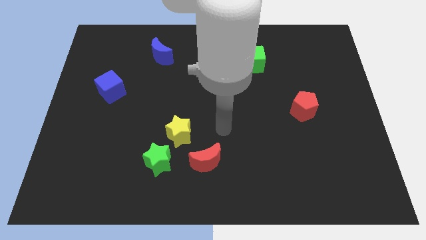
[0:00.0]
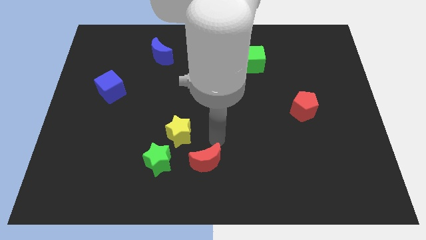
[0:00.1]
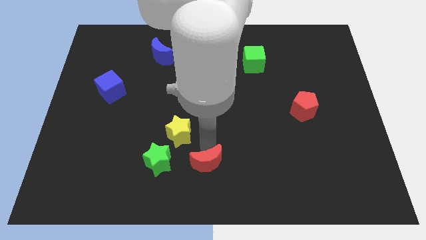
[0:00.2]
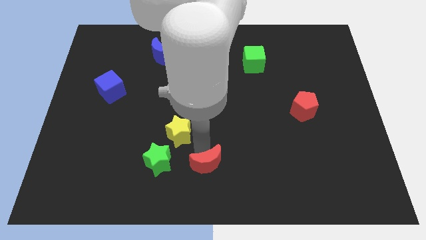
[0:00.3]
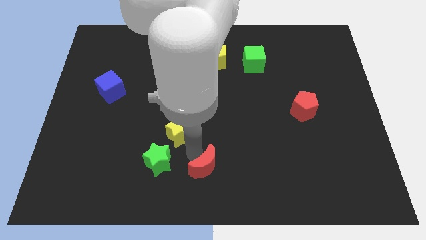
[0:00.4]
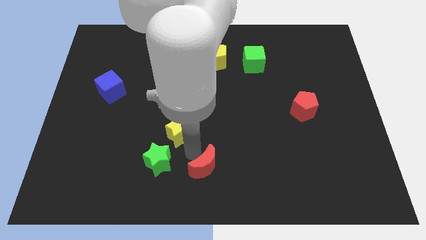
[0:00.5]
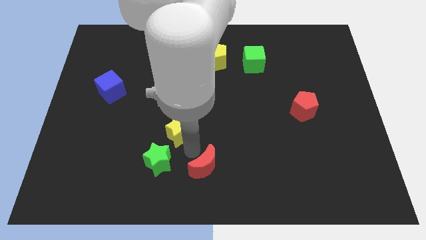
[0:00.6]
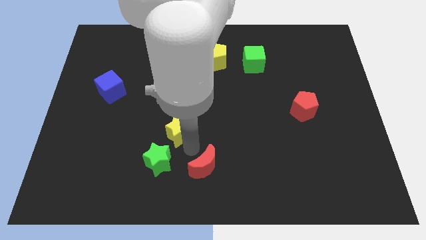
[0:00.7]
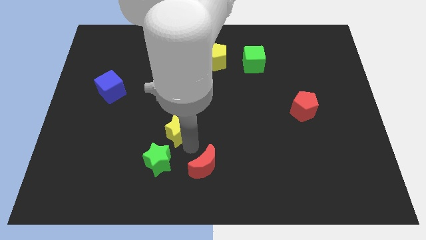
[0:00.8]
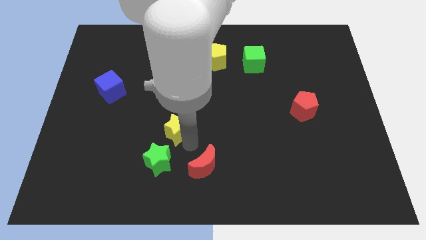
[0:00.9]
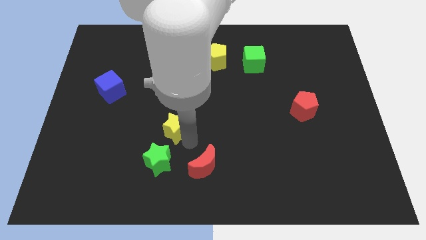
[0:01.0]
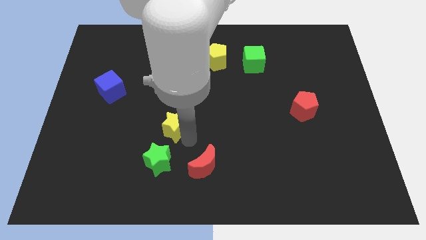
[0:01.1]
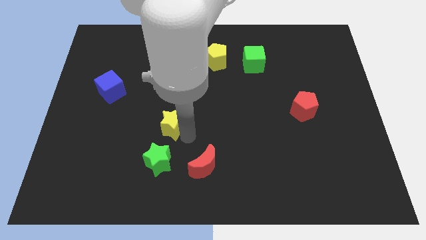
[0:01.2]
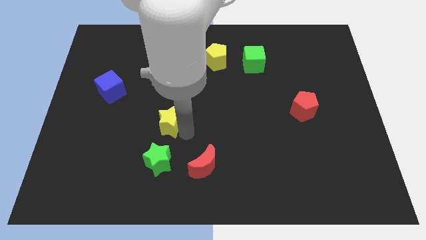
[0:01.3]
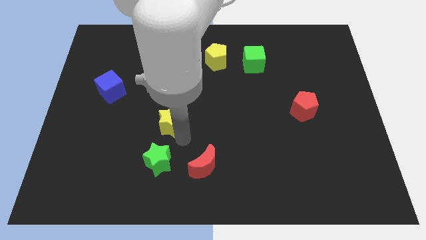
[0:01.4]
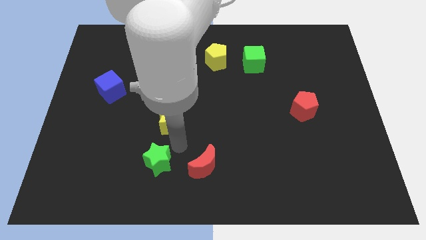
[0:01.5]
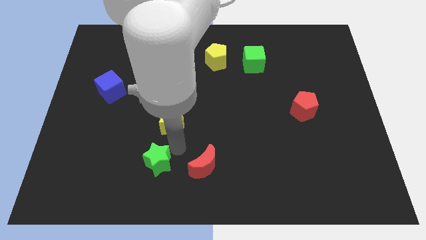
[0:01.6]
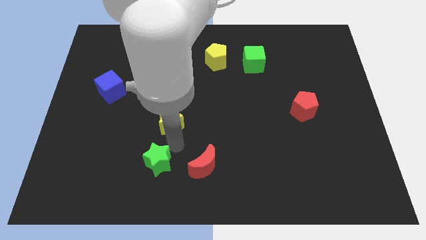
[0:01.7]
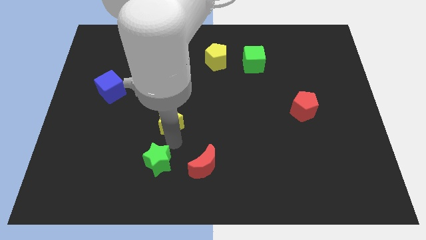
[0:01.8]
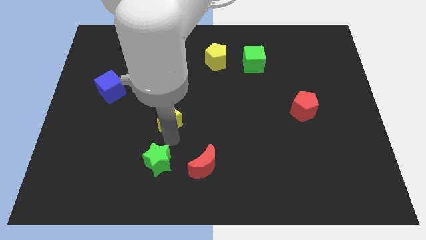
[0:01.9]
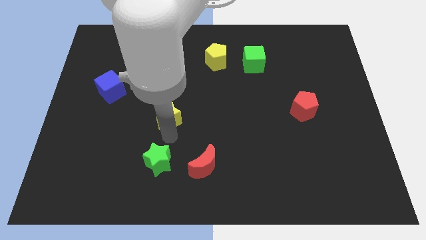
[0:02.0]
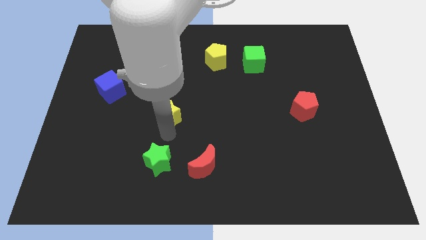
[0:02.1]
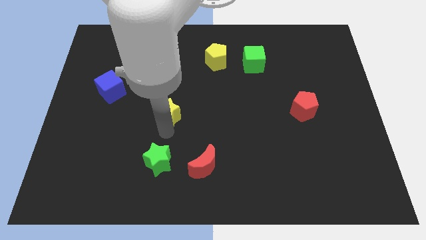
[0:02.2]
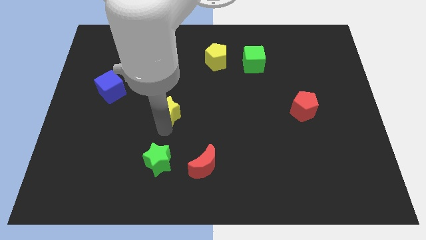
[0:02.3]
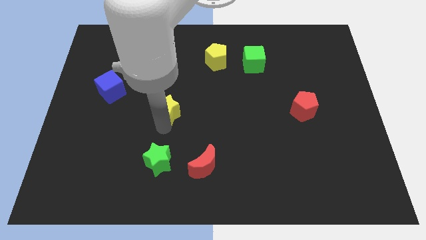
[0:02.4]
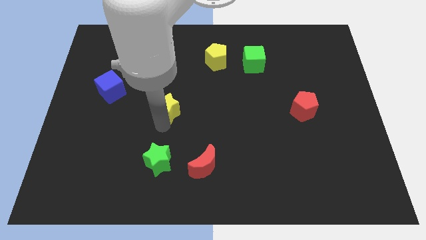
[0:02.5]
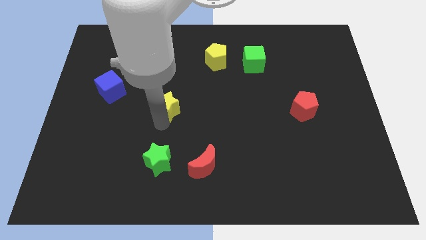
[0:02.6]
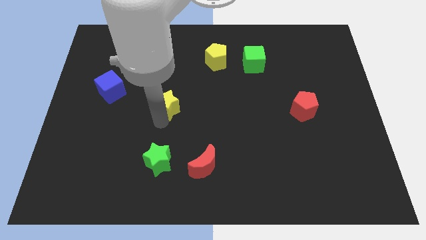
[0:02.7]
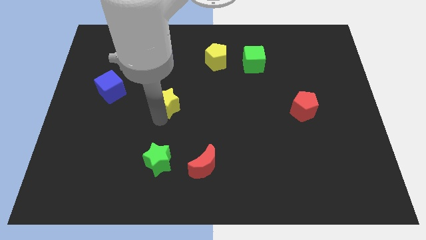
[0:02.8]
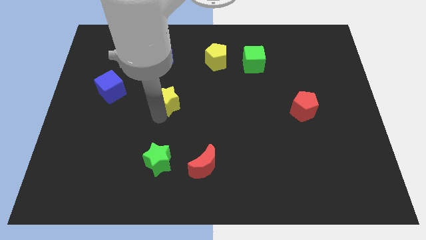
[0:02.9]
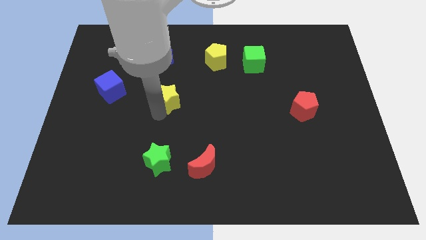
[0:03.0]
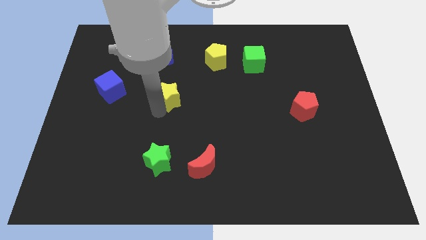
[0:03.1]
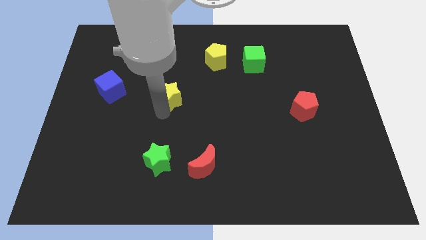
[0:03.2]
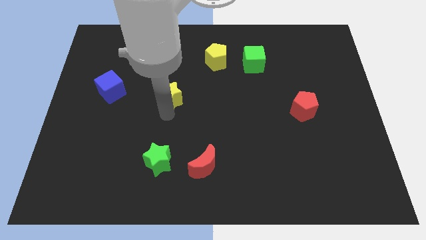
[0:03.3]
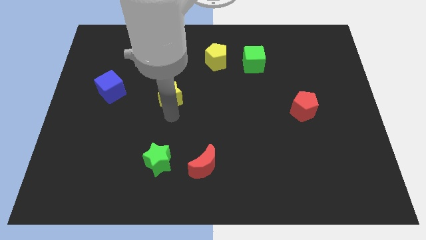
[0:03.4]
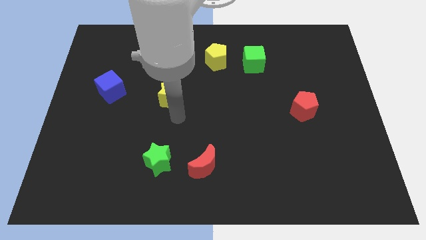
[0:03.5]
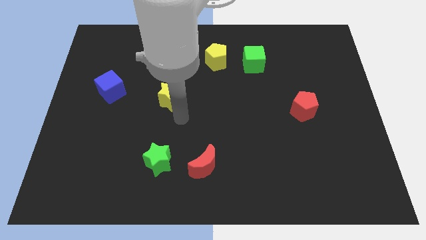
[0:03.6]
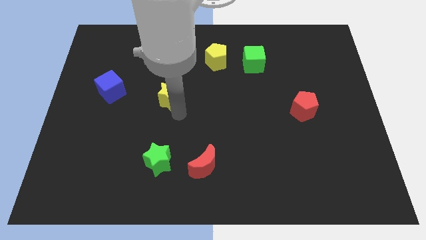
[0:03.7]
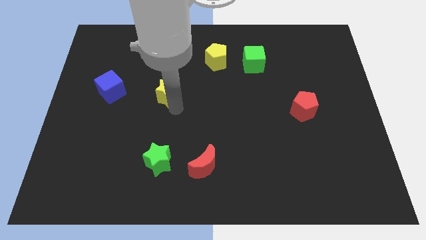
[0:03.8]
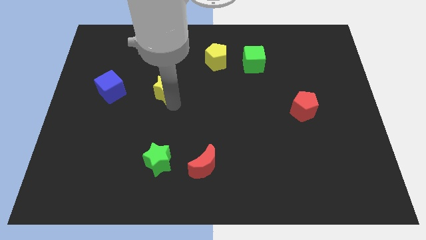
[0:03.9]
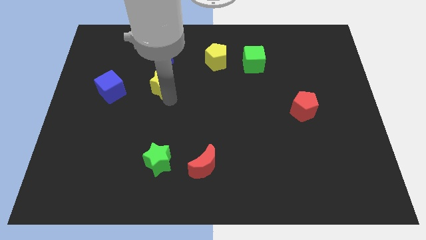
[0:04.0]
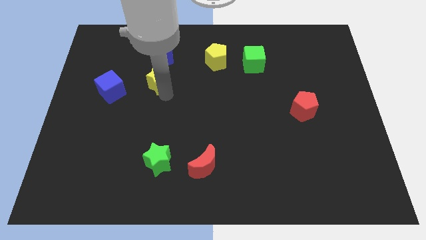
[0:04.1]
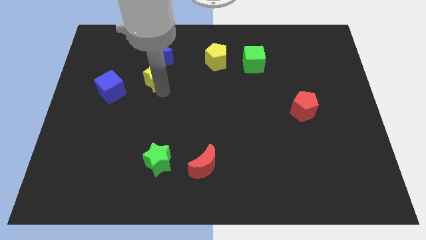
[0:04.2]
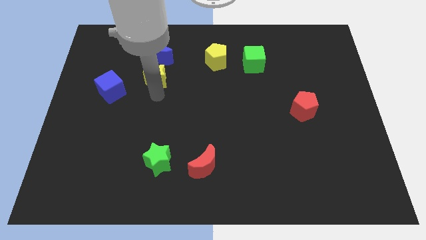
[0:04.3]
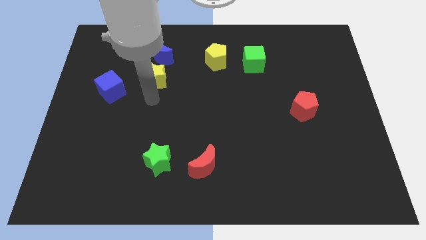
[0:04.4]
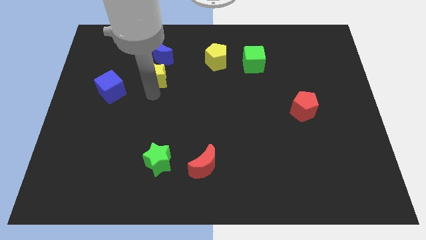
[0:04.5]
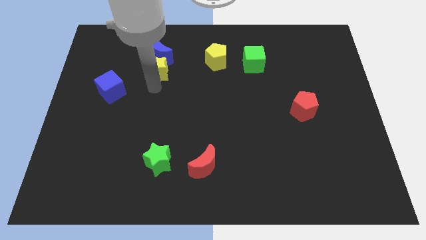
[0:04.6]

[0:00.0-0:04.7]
slide the yellow star to the blue moon

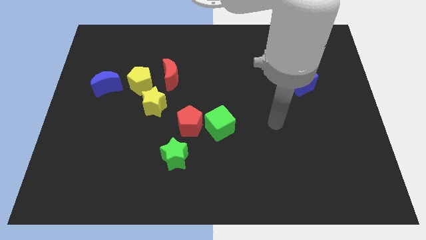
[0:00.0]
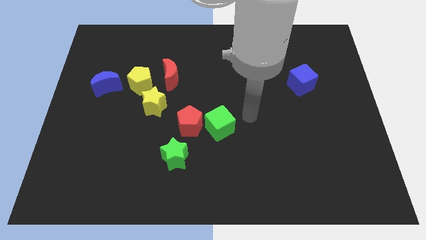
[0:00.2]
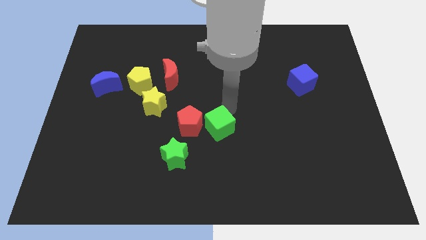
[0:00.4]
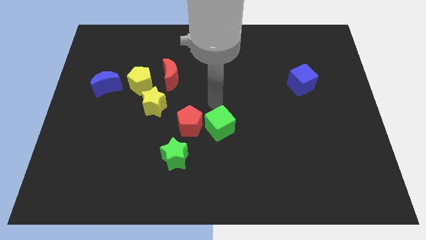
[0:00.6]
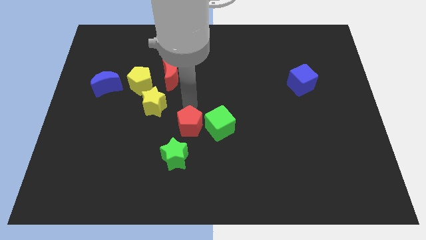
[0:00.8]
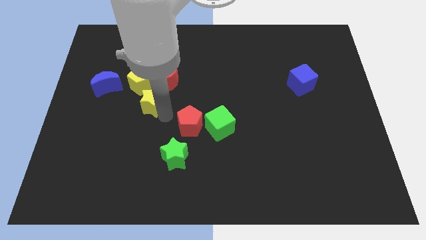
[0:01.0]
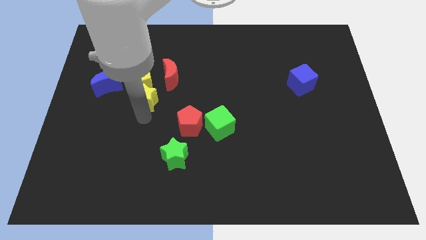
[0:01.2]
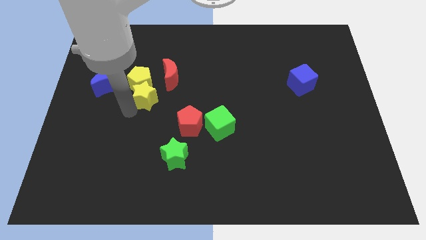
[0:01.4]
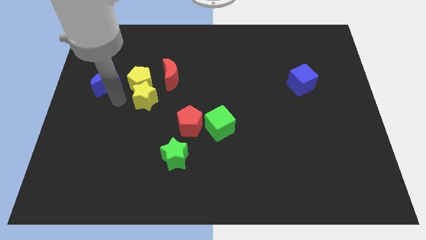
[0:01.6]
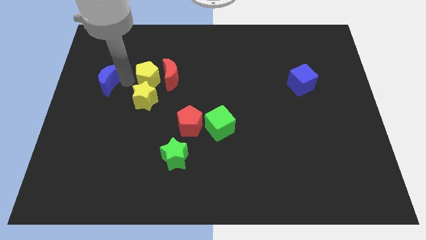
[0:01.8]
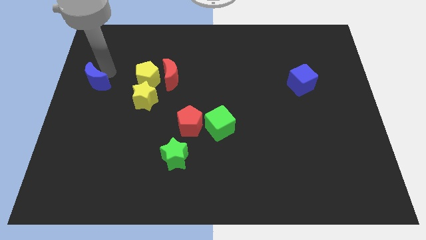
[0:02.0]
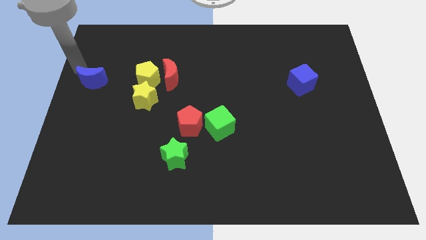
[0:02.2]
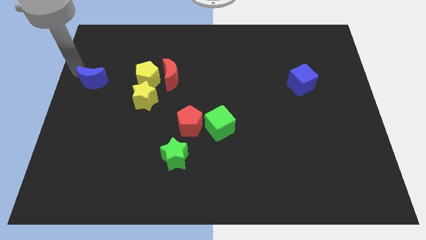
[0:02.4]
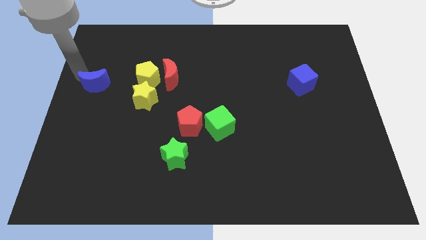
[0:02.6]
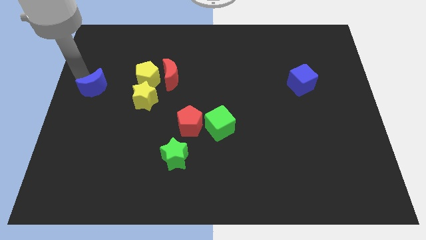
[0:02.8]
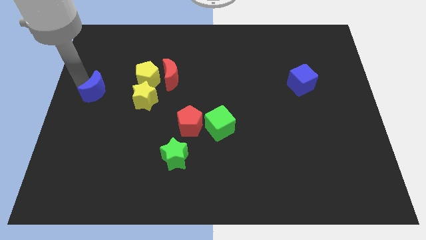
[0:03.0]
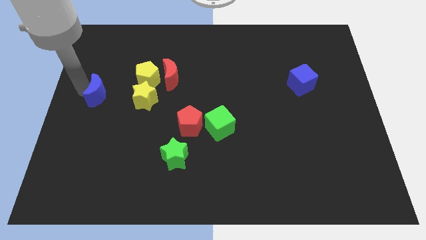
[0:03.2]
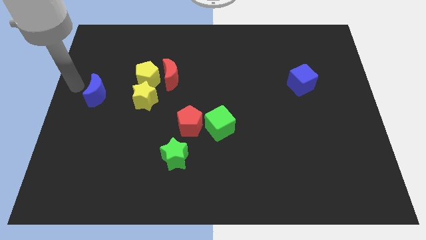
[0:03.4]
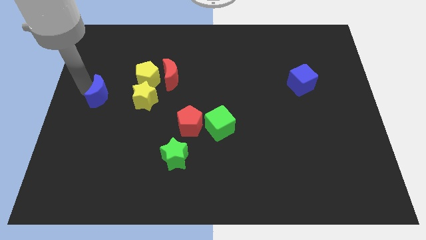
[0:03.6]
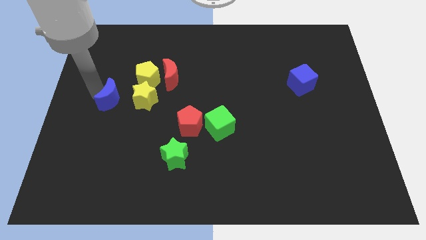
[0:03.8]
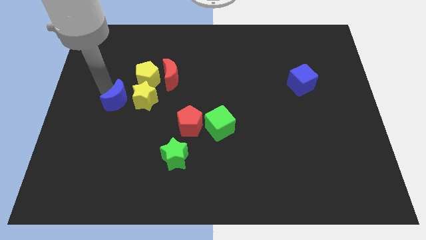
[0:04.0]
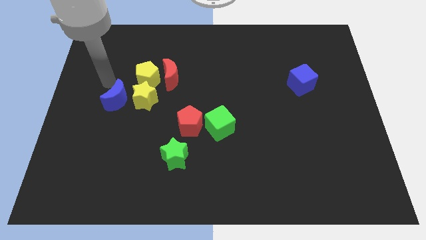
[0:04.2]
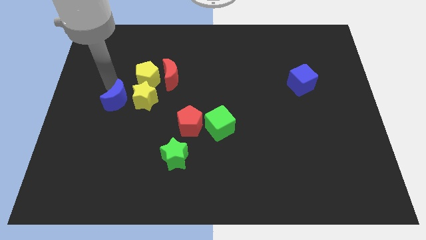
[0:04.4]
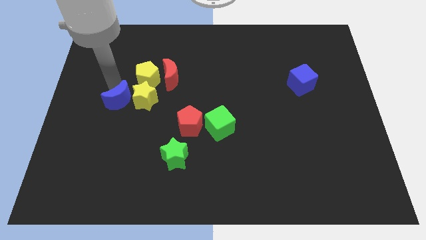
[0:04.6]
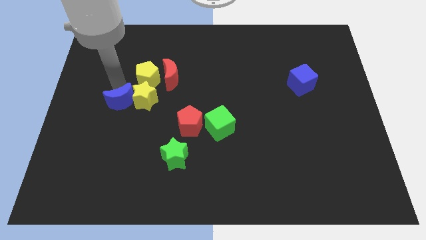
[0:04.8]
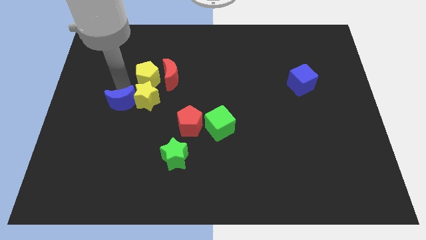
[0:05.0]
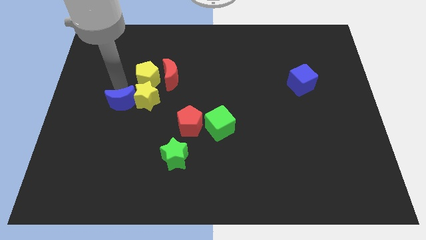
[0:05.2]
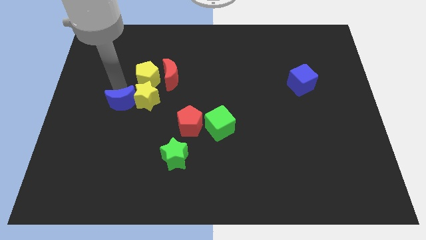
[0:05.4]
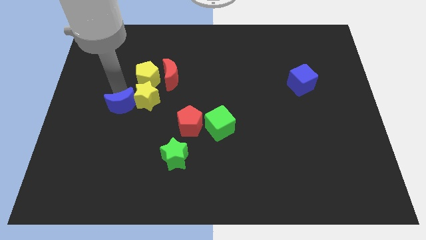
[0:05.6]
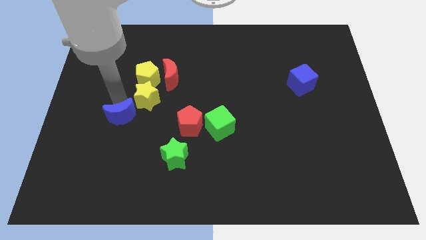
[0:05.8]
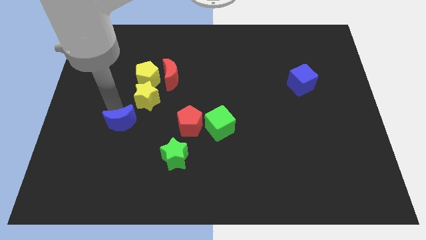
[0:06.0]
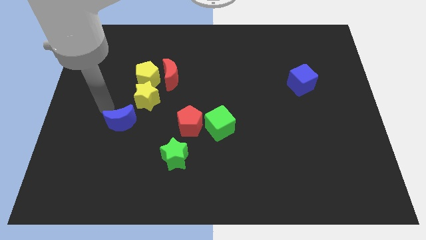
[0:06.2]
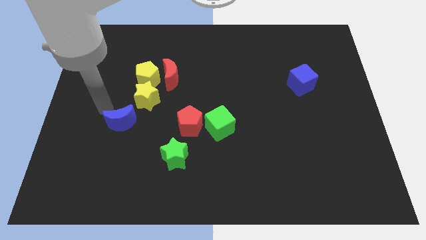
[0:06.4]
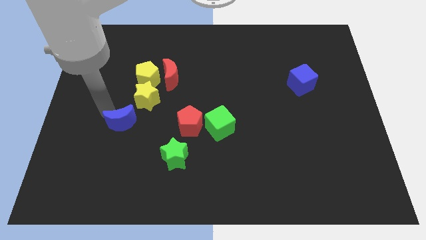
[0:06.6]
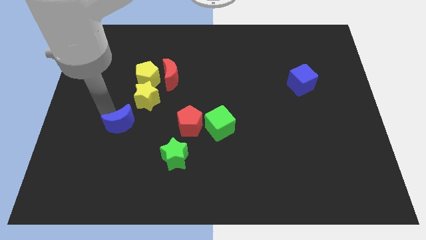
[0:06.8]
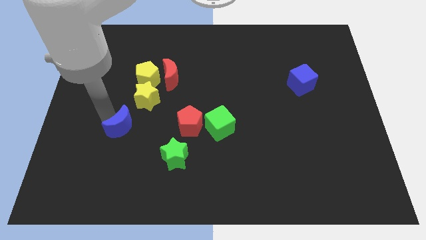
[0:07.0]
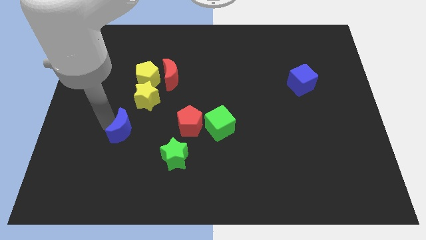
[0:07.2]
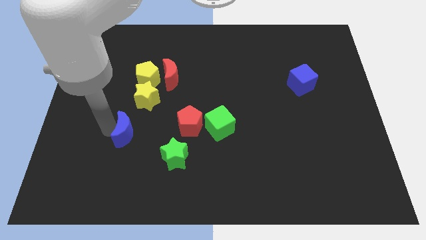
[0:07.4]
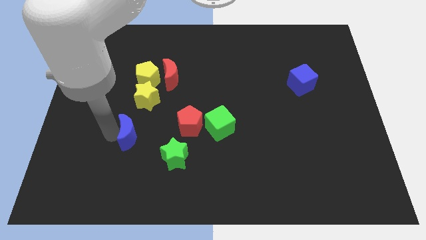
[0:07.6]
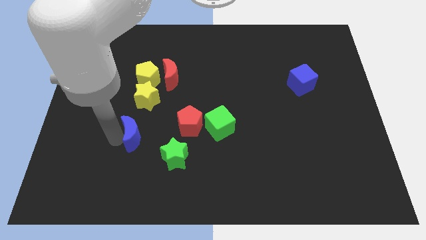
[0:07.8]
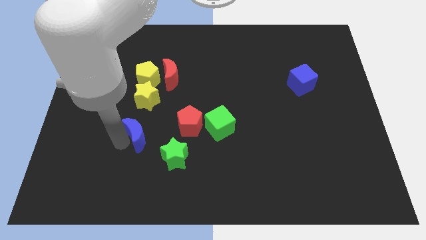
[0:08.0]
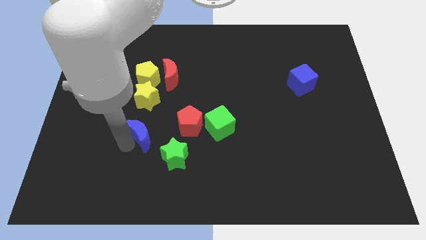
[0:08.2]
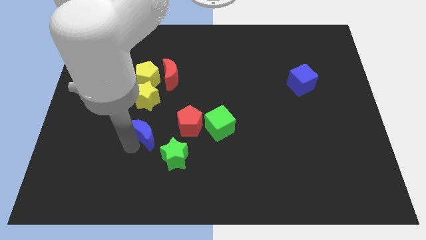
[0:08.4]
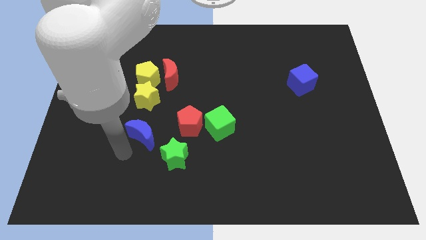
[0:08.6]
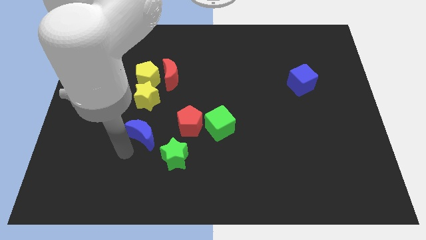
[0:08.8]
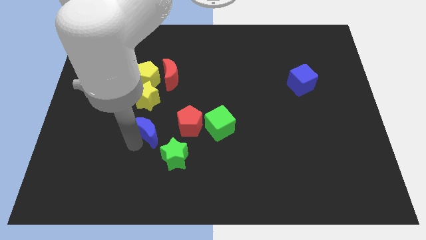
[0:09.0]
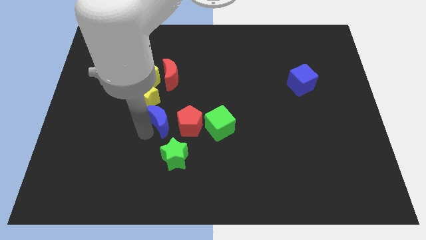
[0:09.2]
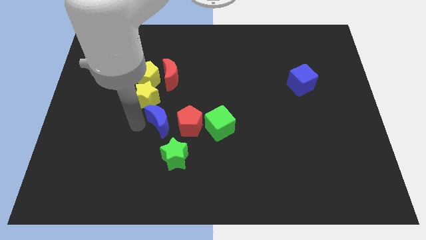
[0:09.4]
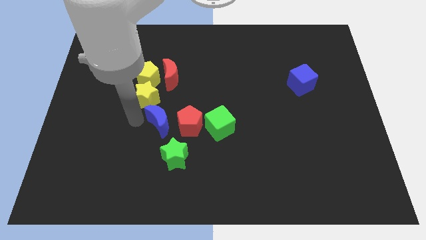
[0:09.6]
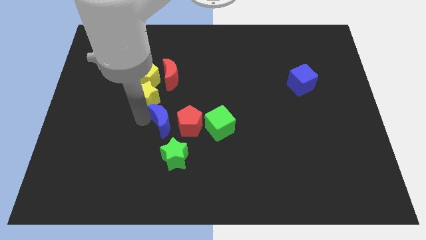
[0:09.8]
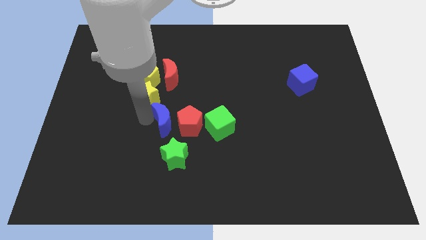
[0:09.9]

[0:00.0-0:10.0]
push the blue moon close to the red pentagon
